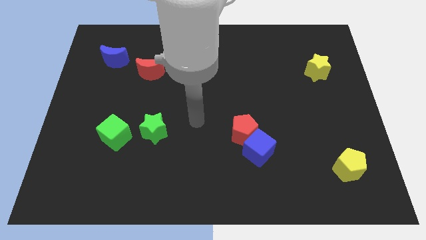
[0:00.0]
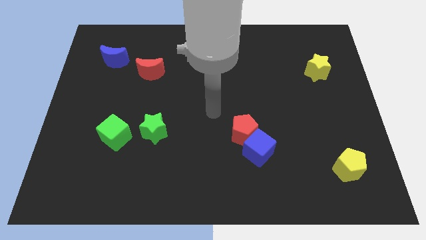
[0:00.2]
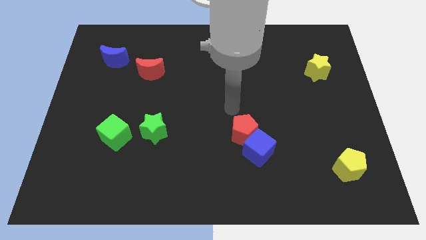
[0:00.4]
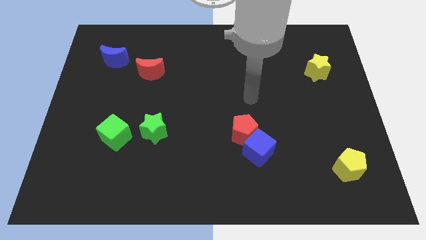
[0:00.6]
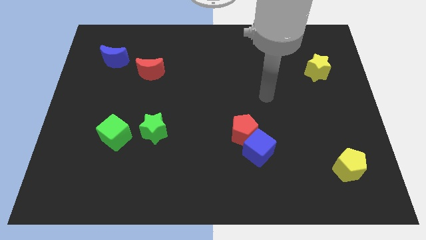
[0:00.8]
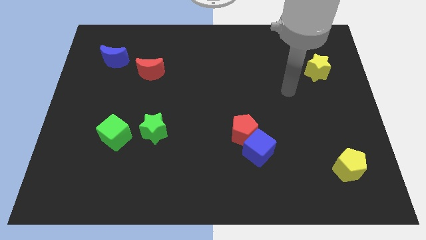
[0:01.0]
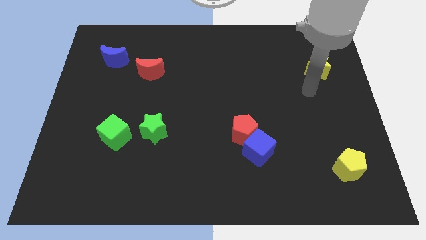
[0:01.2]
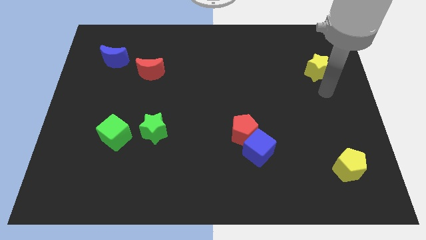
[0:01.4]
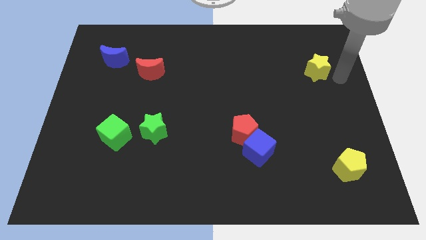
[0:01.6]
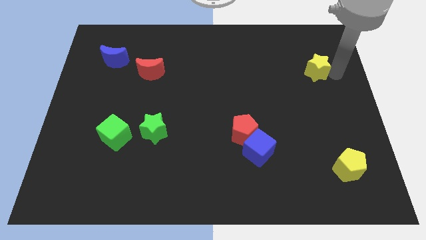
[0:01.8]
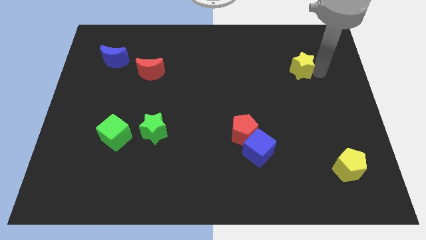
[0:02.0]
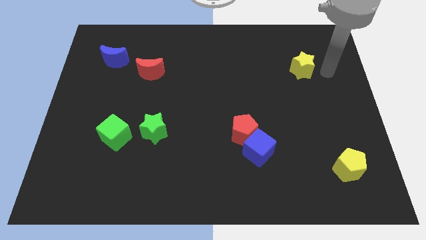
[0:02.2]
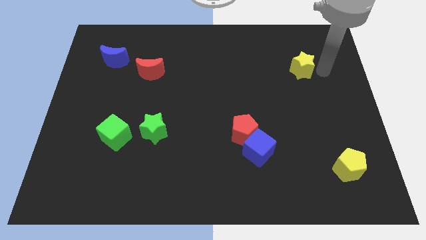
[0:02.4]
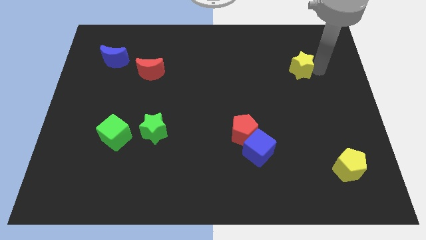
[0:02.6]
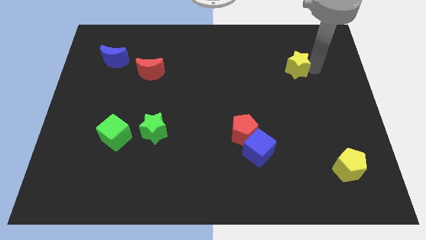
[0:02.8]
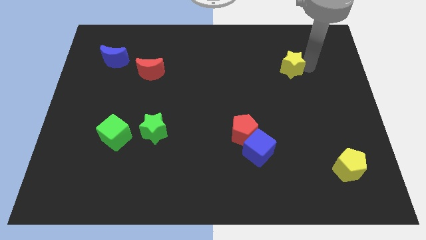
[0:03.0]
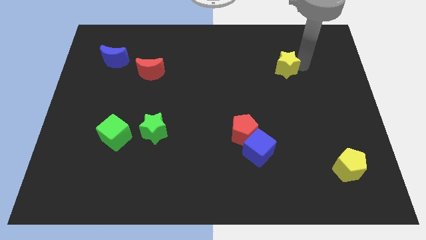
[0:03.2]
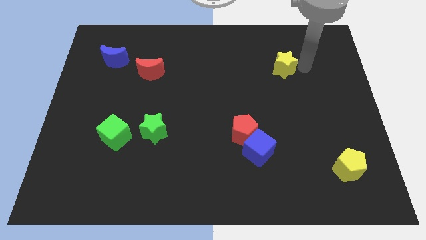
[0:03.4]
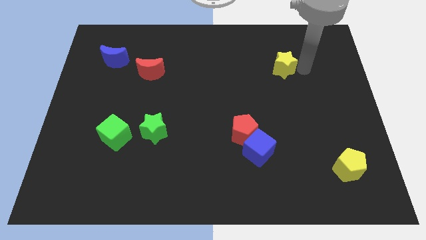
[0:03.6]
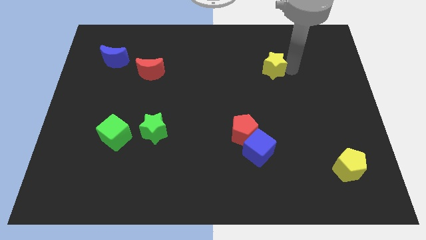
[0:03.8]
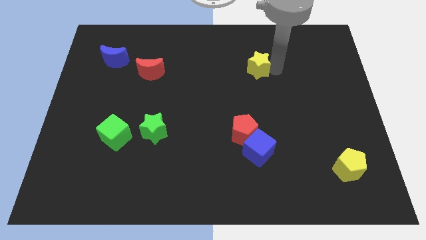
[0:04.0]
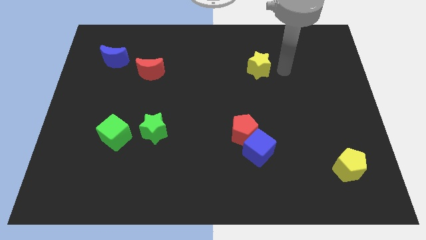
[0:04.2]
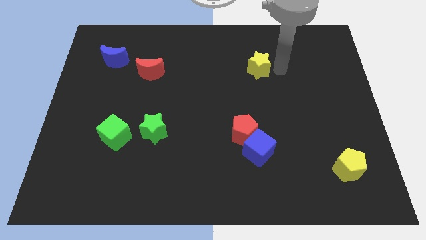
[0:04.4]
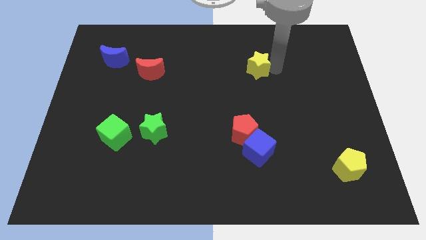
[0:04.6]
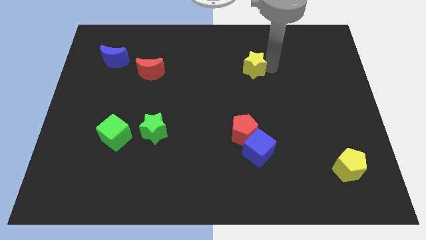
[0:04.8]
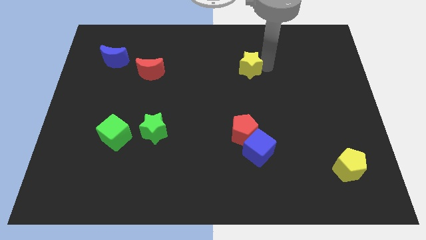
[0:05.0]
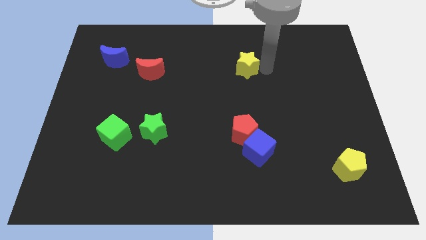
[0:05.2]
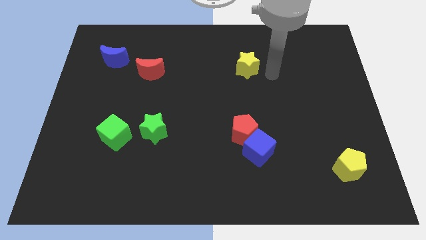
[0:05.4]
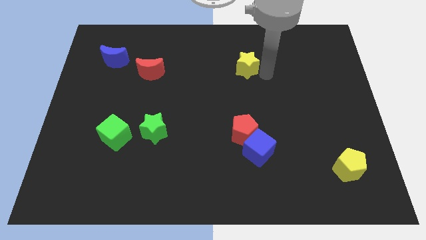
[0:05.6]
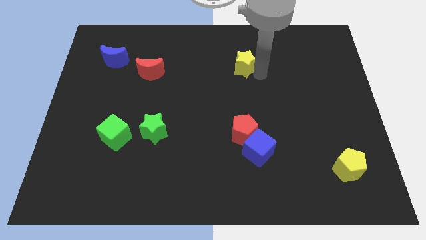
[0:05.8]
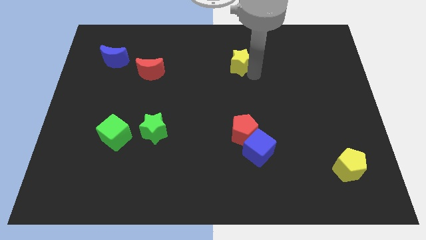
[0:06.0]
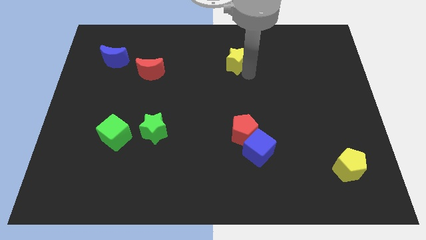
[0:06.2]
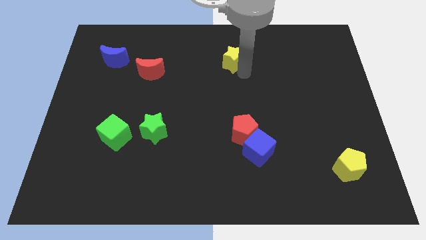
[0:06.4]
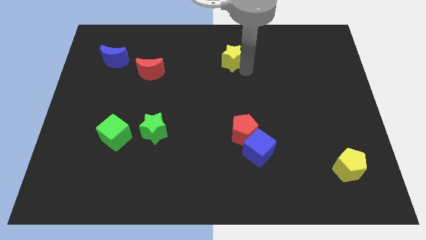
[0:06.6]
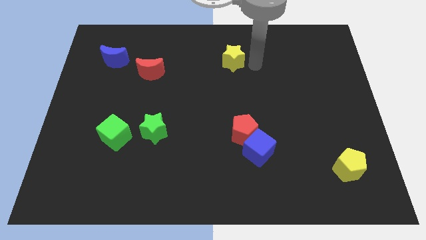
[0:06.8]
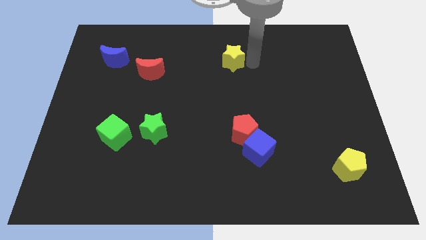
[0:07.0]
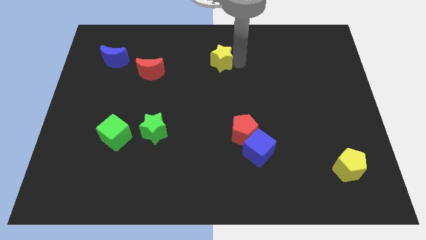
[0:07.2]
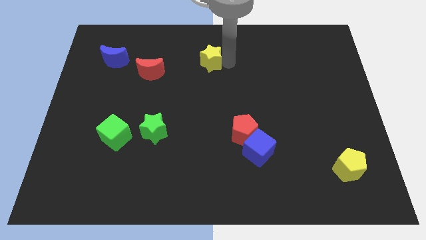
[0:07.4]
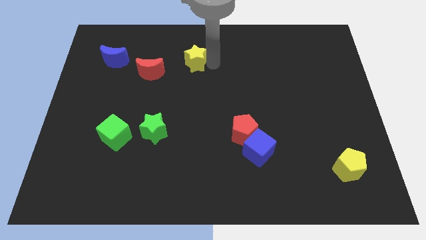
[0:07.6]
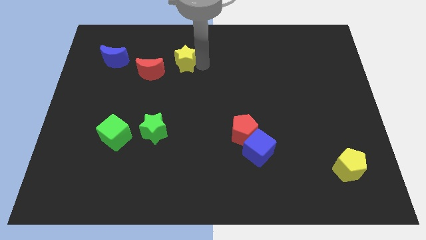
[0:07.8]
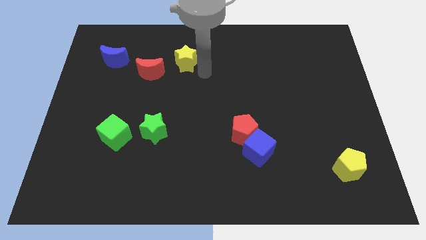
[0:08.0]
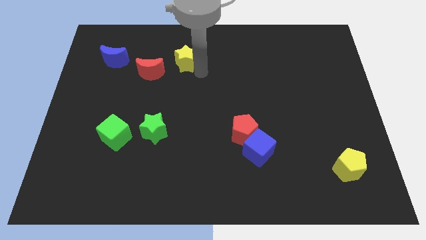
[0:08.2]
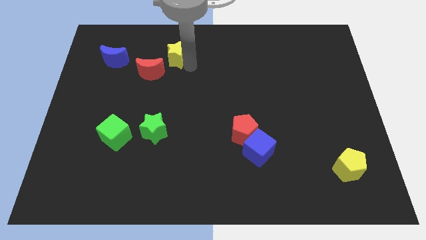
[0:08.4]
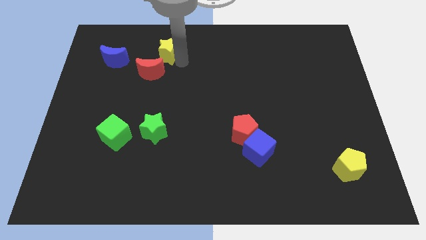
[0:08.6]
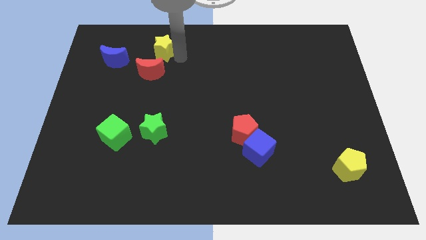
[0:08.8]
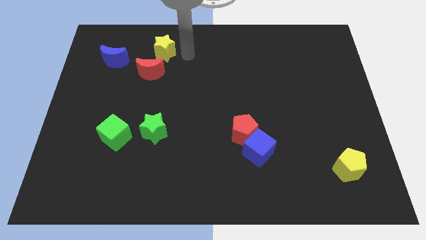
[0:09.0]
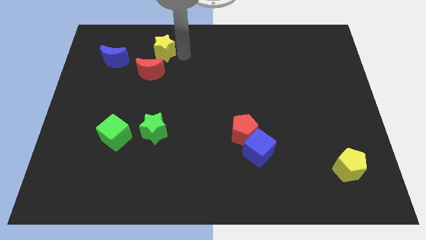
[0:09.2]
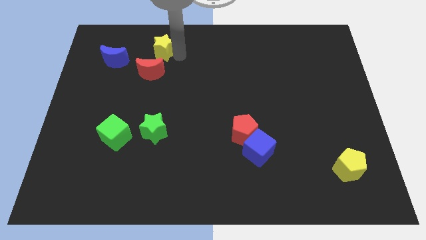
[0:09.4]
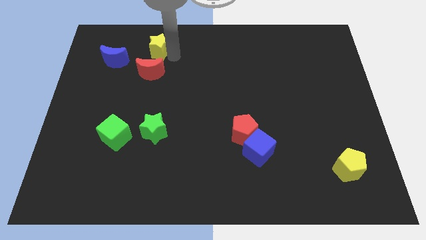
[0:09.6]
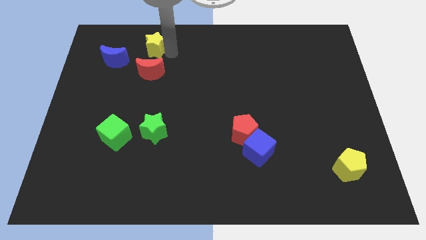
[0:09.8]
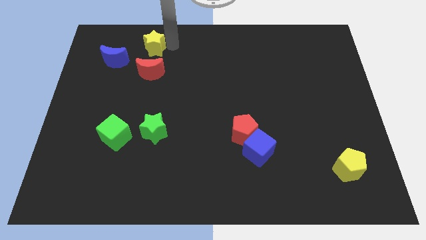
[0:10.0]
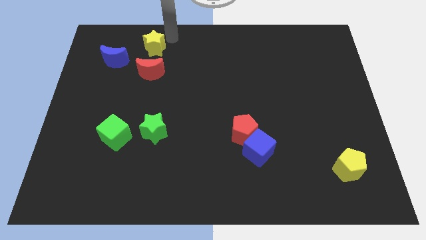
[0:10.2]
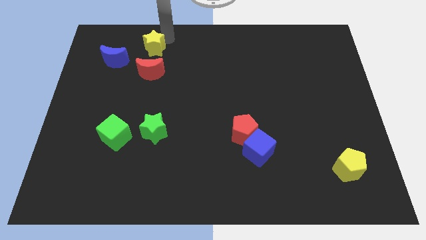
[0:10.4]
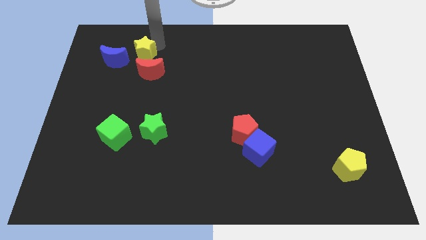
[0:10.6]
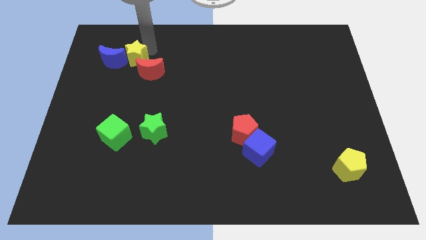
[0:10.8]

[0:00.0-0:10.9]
push the yellow star to the blue moon

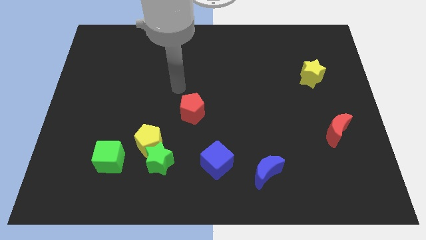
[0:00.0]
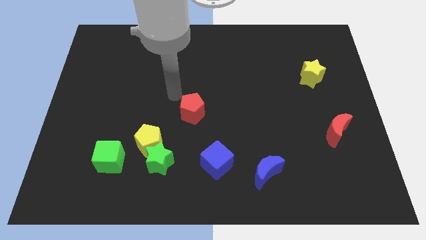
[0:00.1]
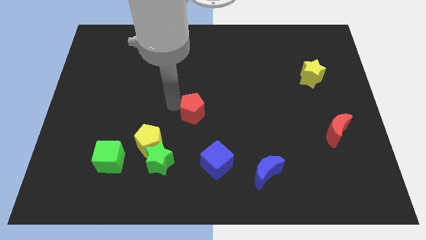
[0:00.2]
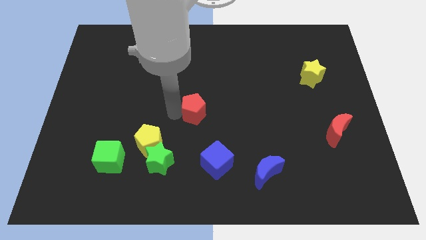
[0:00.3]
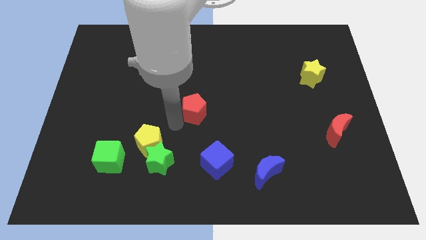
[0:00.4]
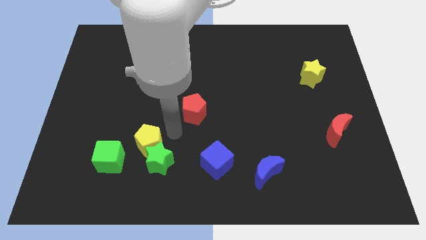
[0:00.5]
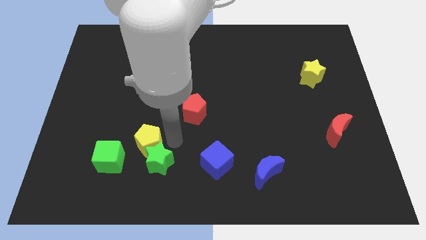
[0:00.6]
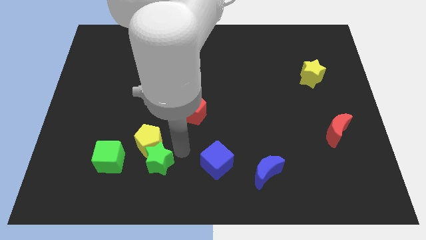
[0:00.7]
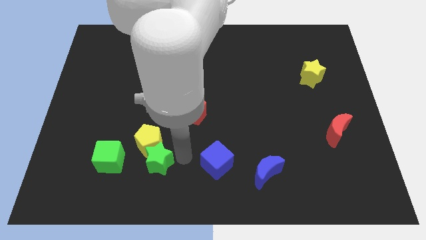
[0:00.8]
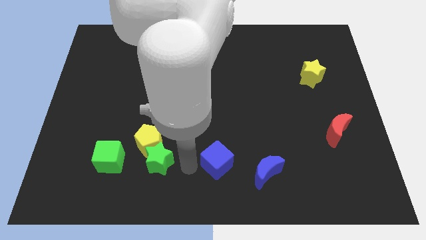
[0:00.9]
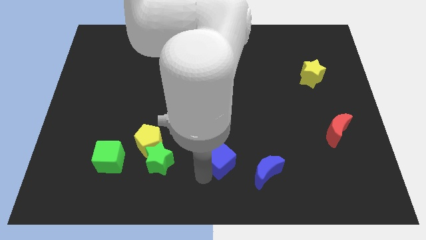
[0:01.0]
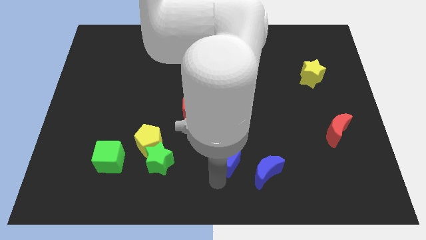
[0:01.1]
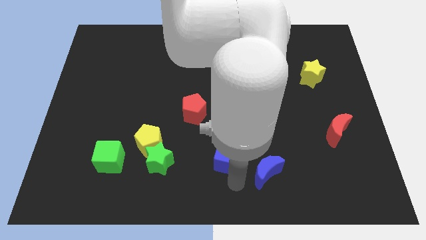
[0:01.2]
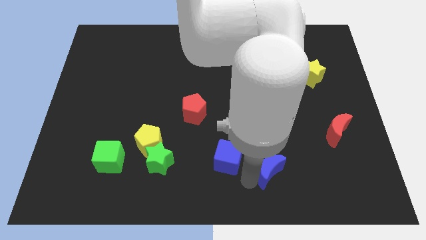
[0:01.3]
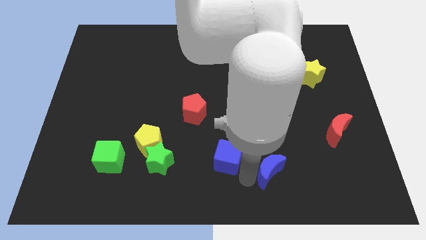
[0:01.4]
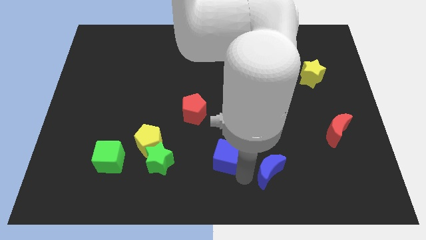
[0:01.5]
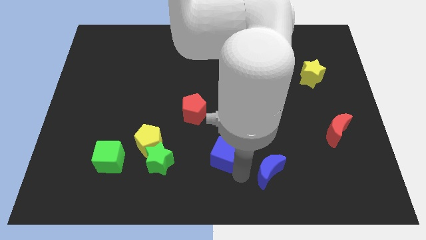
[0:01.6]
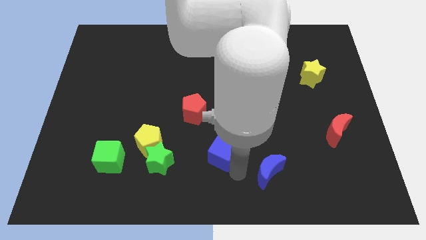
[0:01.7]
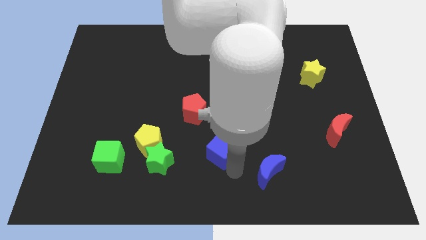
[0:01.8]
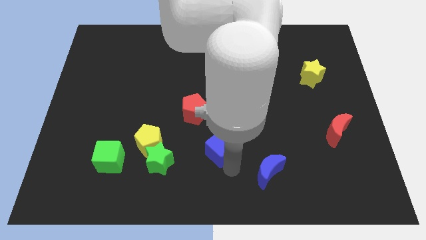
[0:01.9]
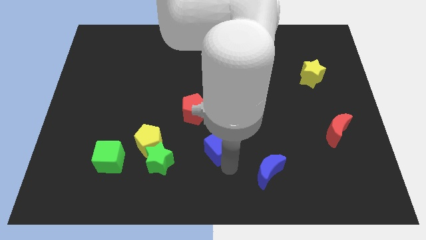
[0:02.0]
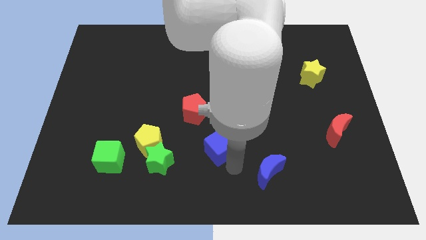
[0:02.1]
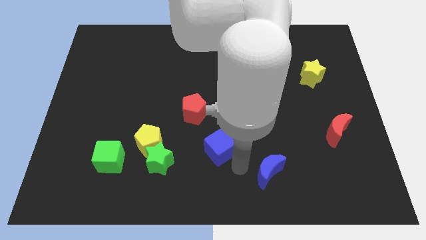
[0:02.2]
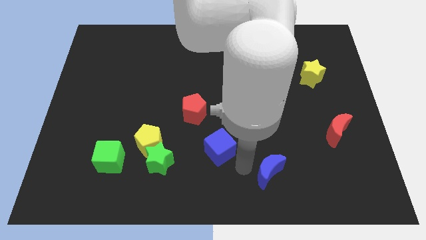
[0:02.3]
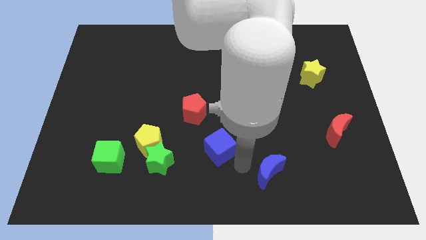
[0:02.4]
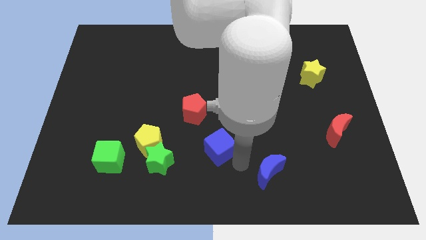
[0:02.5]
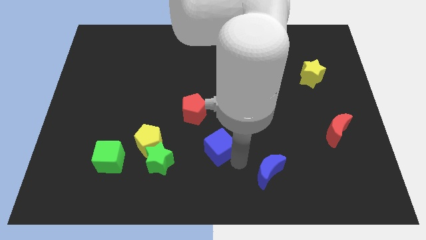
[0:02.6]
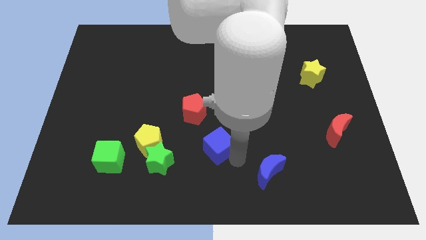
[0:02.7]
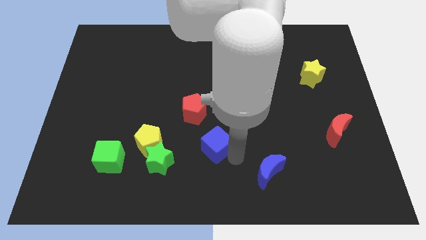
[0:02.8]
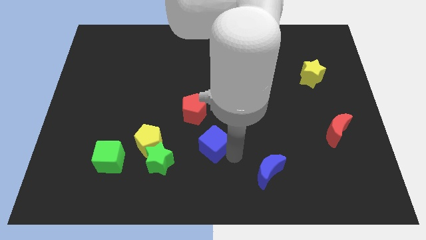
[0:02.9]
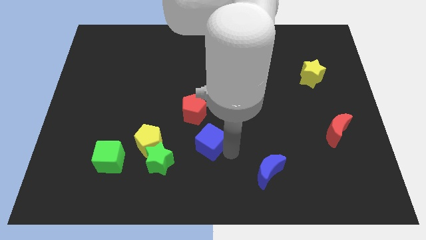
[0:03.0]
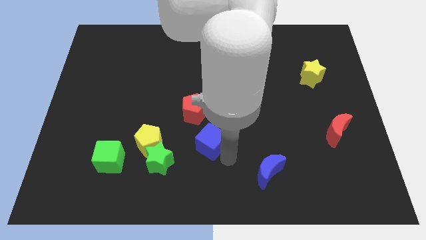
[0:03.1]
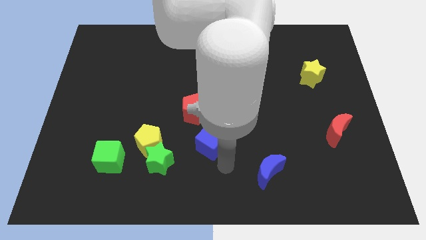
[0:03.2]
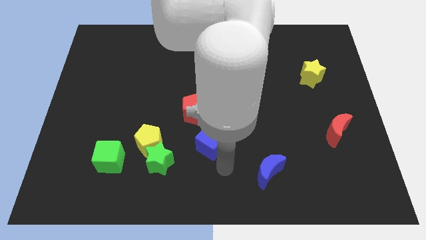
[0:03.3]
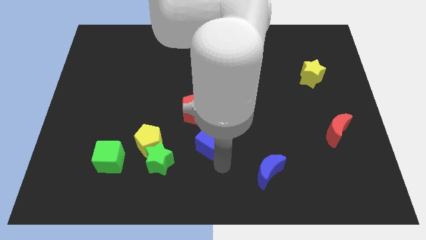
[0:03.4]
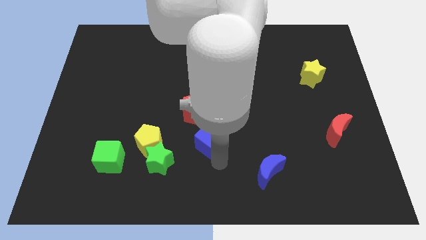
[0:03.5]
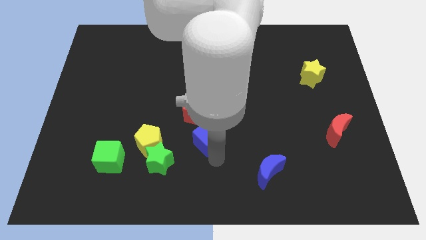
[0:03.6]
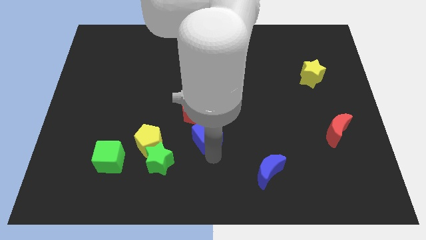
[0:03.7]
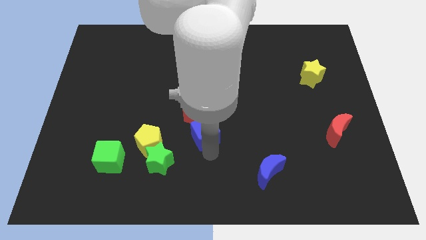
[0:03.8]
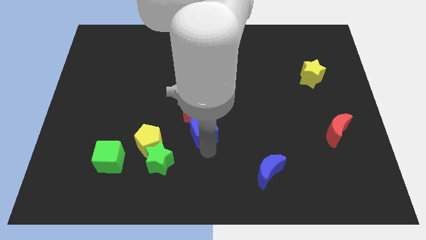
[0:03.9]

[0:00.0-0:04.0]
slide the blue cube close to the red pentagon
